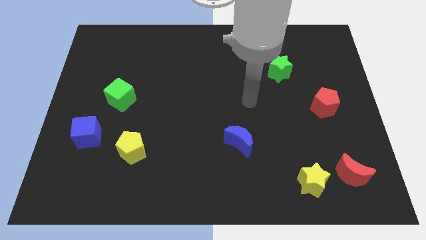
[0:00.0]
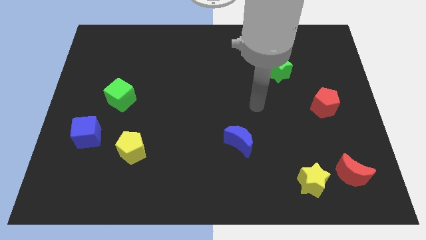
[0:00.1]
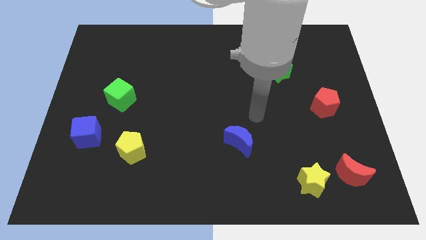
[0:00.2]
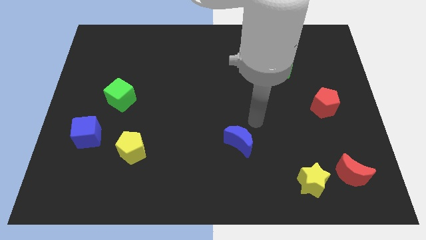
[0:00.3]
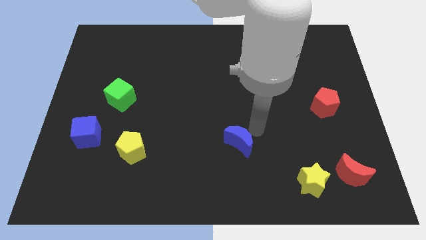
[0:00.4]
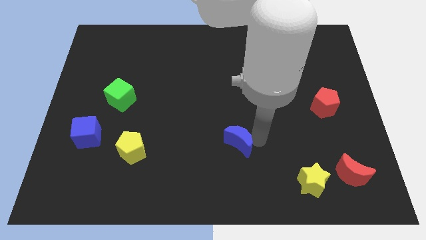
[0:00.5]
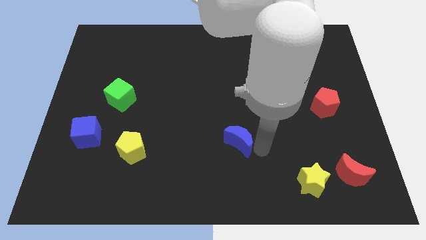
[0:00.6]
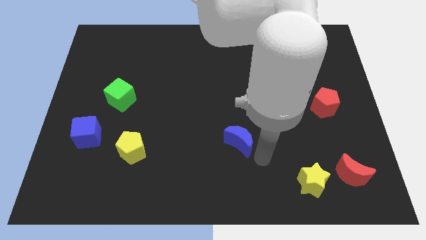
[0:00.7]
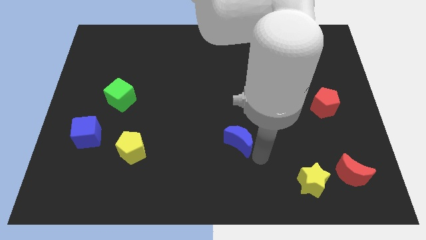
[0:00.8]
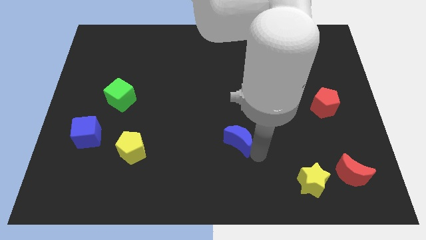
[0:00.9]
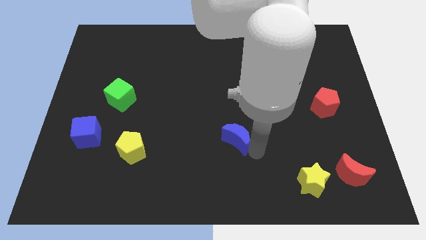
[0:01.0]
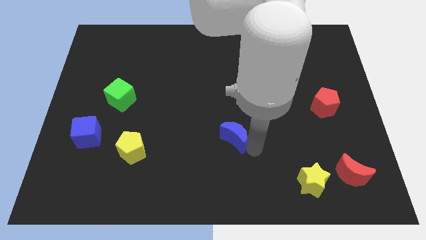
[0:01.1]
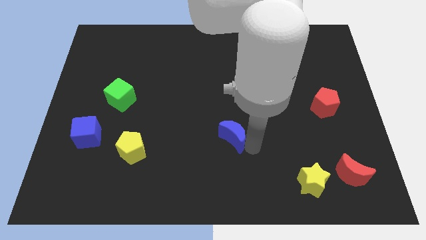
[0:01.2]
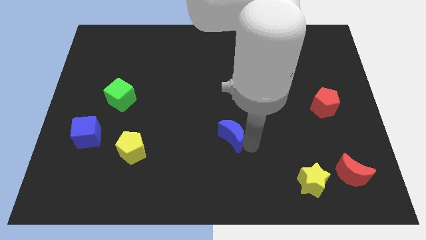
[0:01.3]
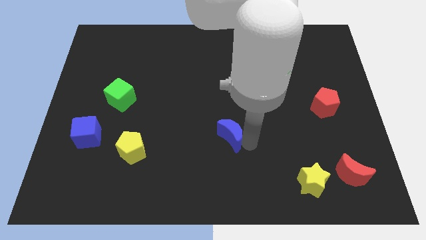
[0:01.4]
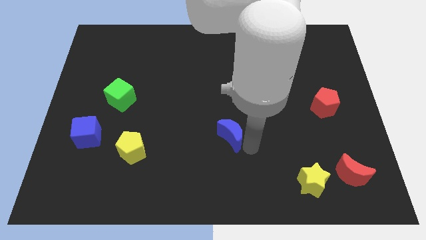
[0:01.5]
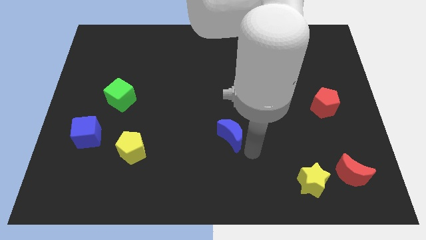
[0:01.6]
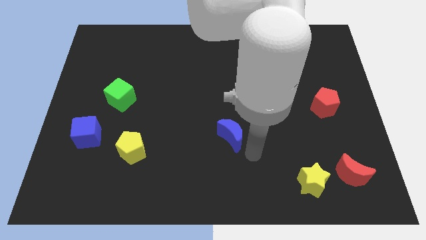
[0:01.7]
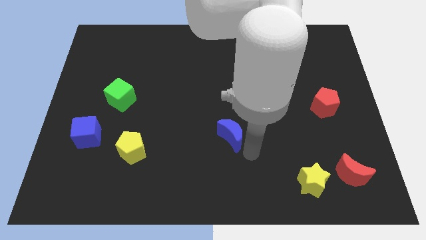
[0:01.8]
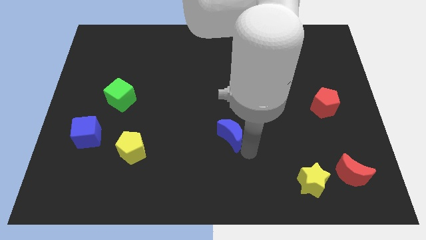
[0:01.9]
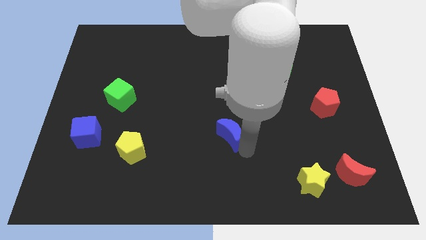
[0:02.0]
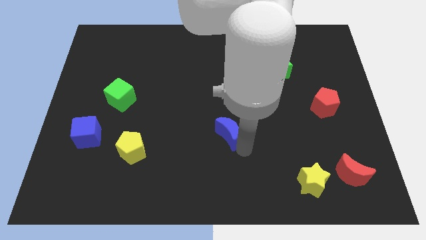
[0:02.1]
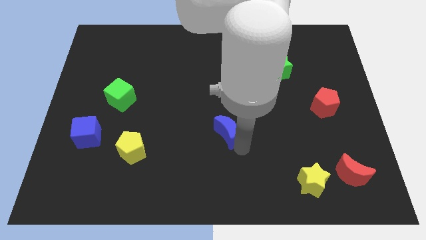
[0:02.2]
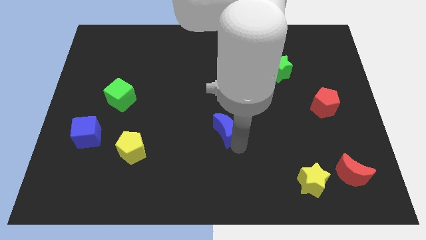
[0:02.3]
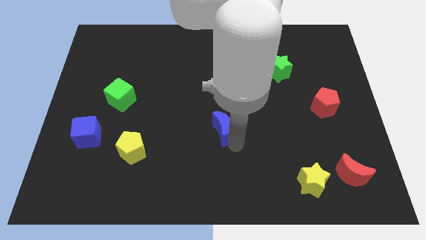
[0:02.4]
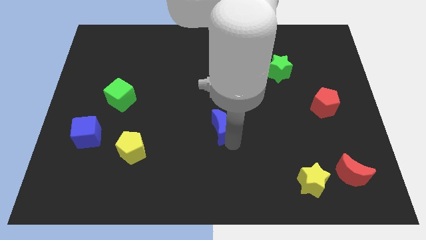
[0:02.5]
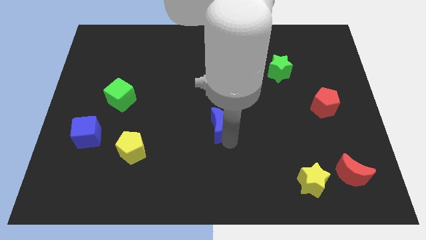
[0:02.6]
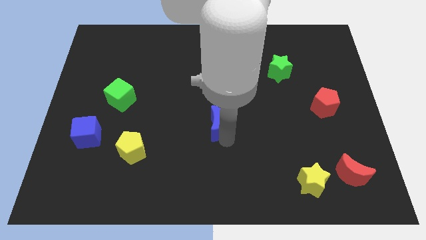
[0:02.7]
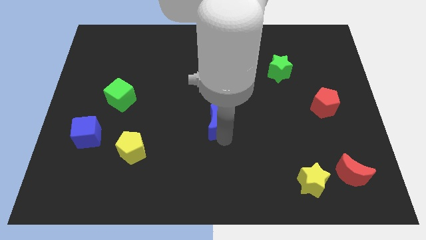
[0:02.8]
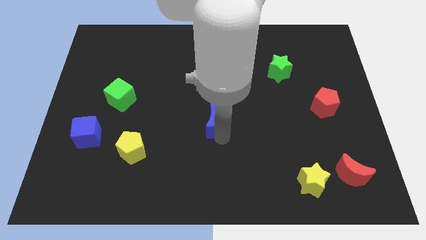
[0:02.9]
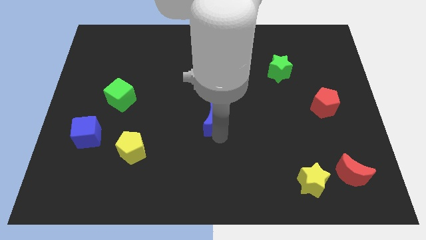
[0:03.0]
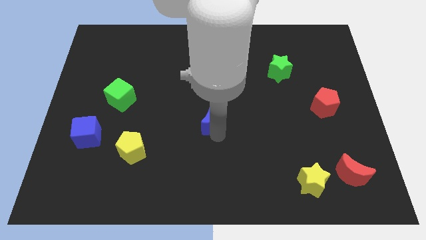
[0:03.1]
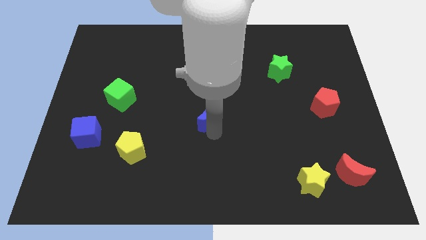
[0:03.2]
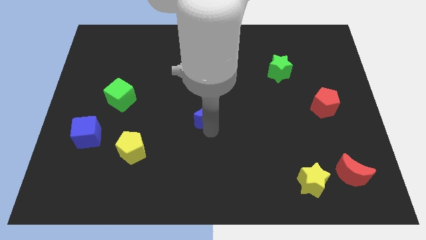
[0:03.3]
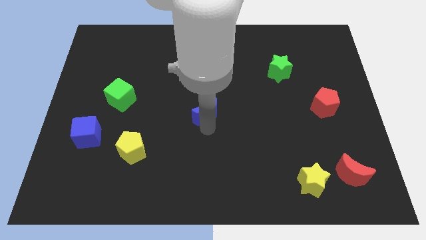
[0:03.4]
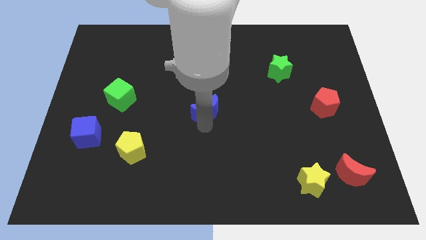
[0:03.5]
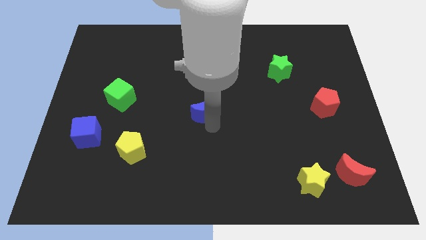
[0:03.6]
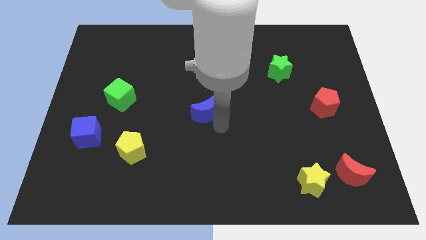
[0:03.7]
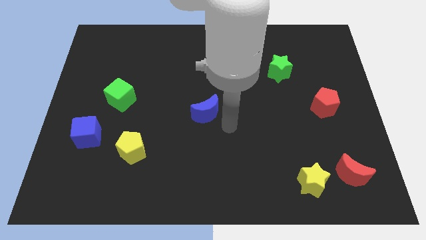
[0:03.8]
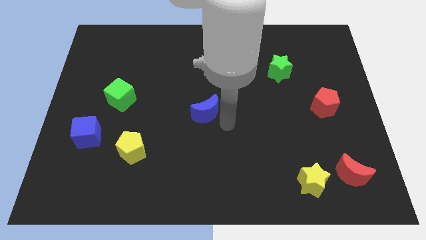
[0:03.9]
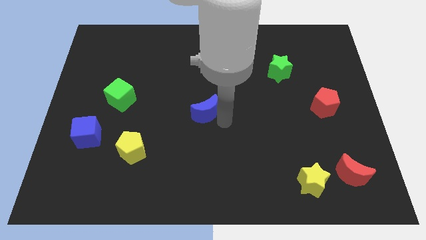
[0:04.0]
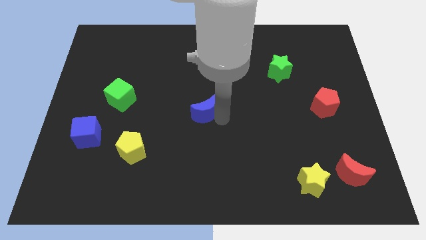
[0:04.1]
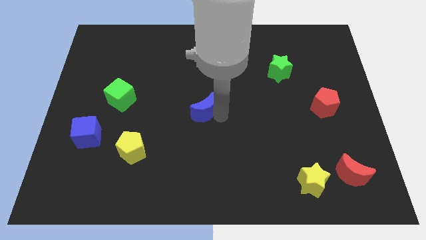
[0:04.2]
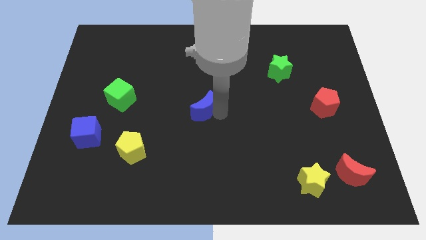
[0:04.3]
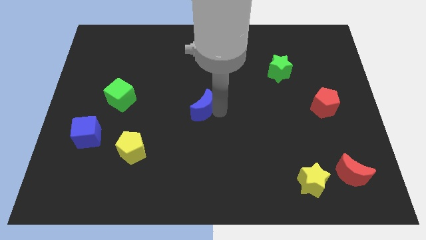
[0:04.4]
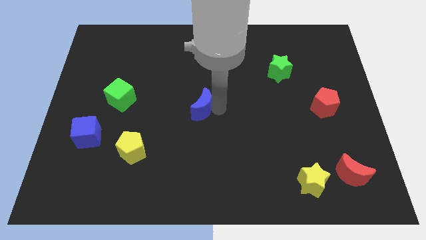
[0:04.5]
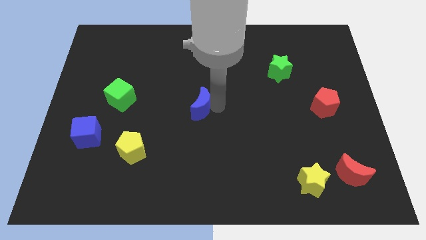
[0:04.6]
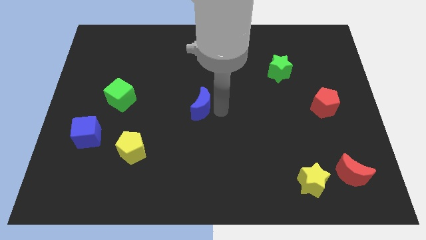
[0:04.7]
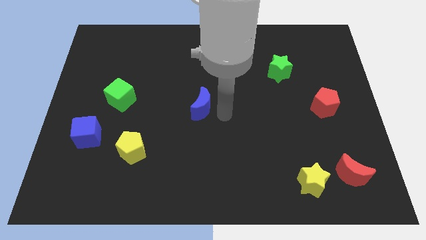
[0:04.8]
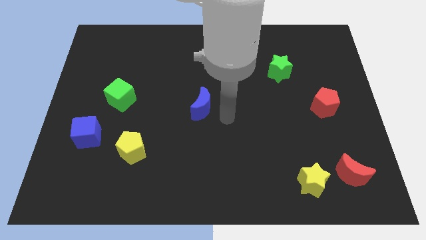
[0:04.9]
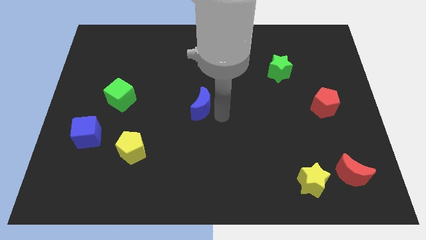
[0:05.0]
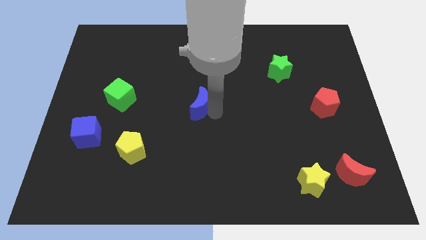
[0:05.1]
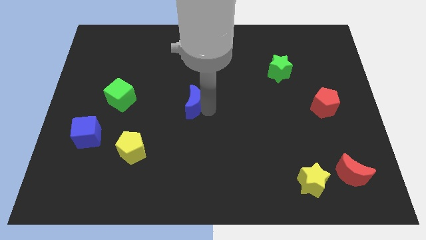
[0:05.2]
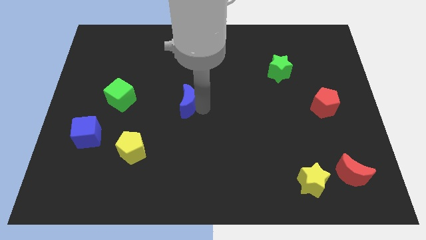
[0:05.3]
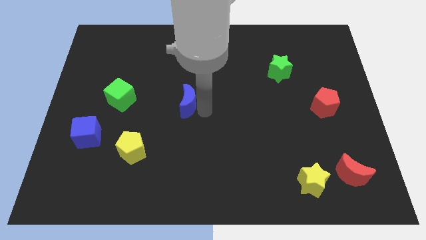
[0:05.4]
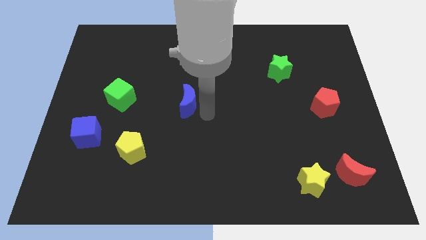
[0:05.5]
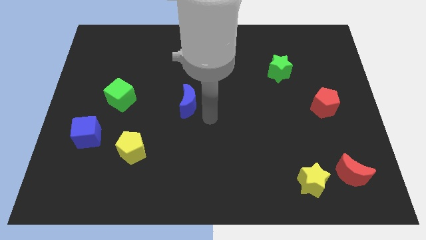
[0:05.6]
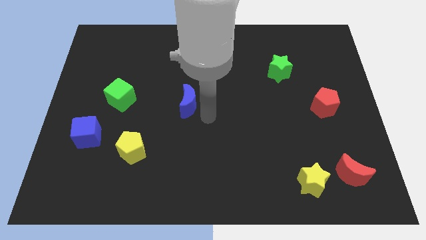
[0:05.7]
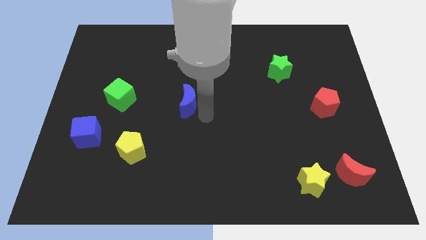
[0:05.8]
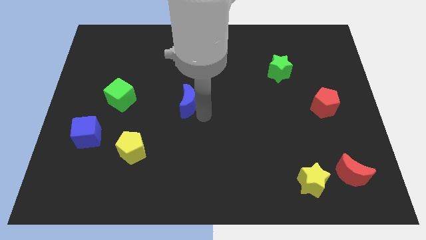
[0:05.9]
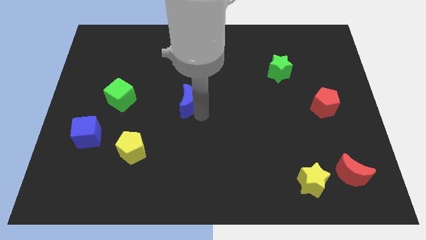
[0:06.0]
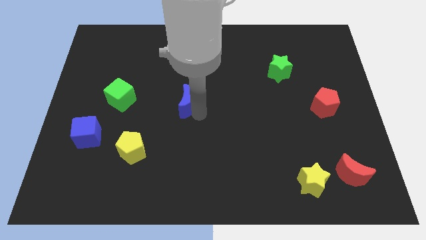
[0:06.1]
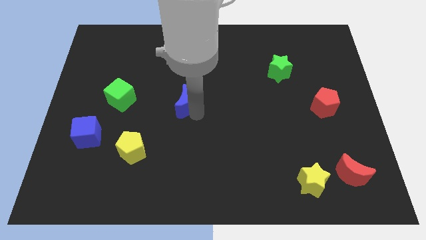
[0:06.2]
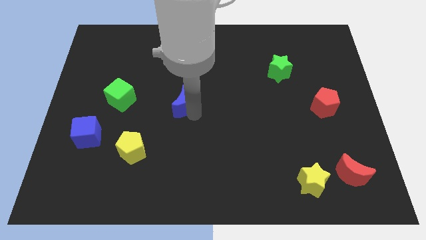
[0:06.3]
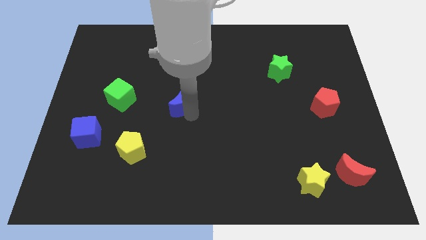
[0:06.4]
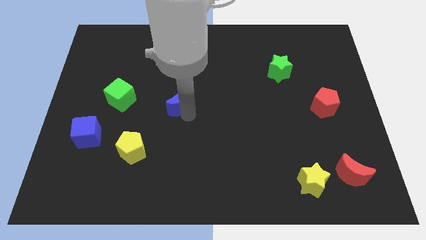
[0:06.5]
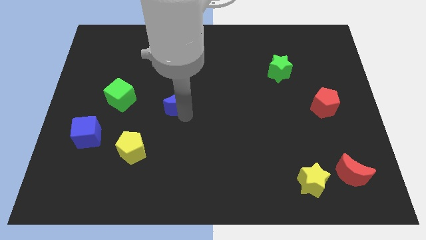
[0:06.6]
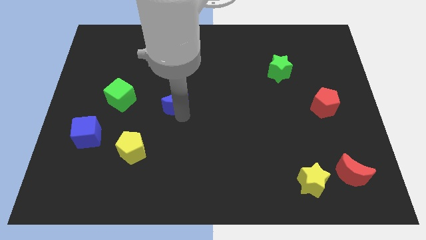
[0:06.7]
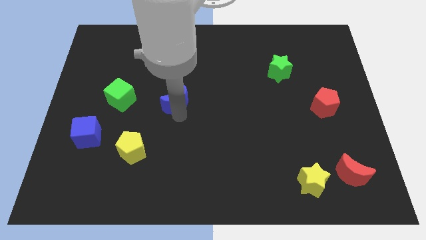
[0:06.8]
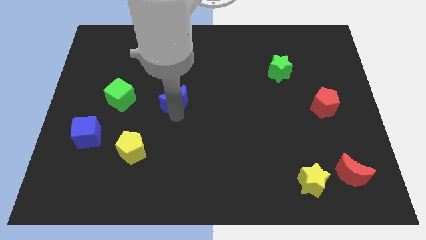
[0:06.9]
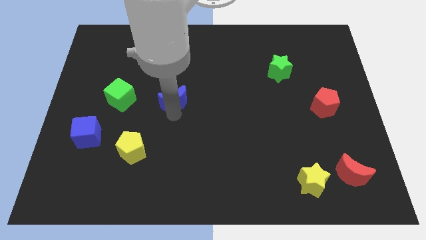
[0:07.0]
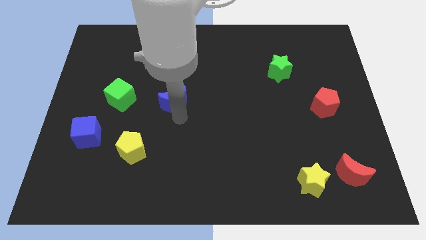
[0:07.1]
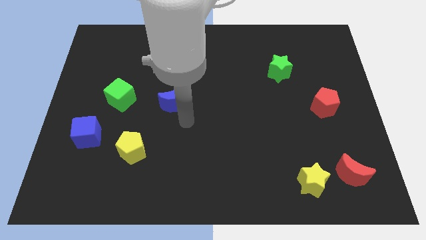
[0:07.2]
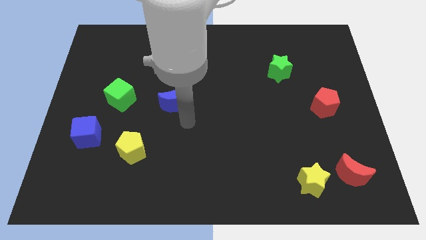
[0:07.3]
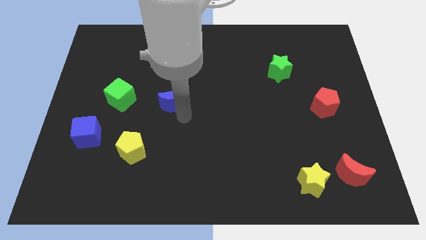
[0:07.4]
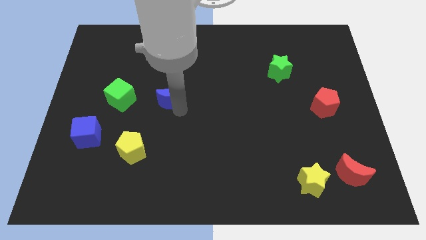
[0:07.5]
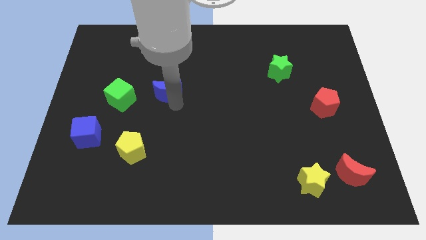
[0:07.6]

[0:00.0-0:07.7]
move the blue moon up and left diagonally

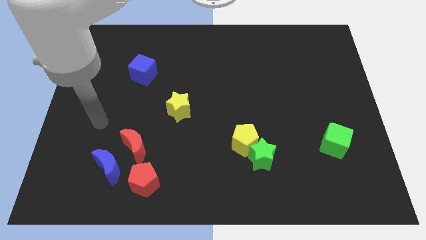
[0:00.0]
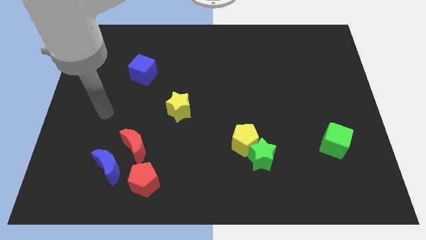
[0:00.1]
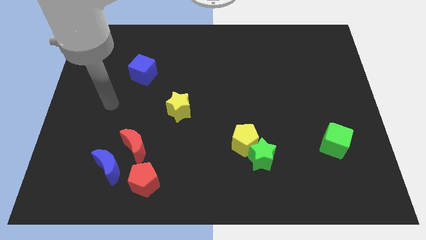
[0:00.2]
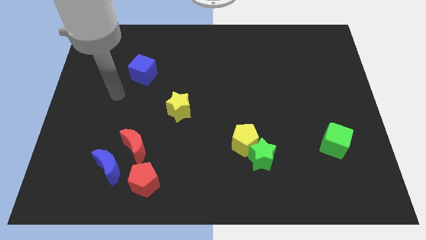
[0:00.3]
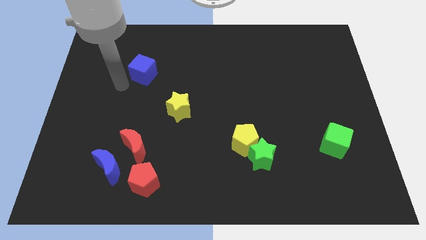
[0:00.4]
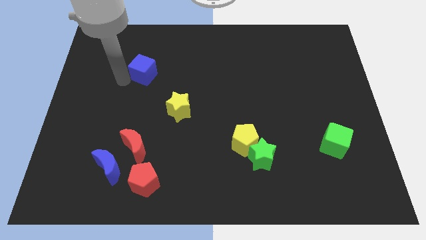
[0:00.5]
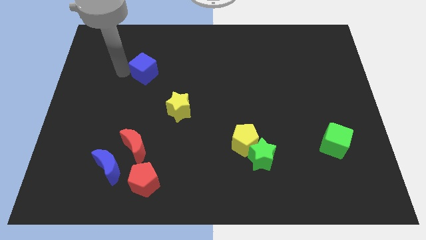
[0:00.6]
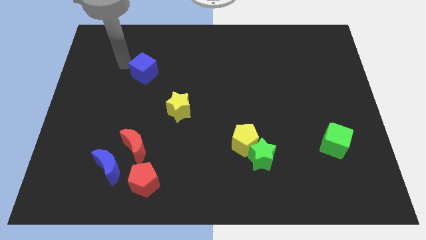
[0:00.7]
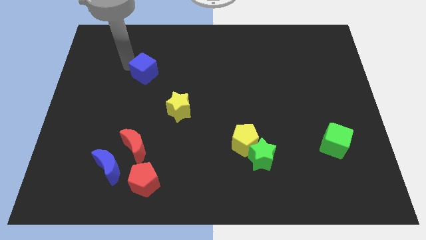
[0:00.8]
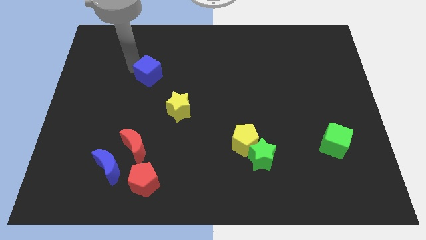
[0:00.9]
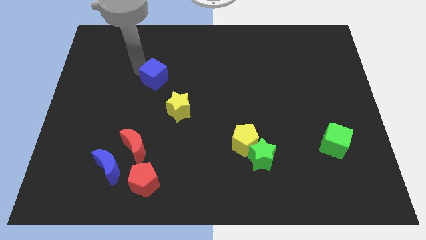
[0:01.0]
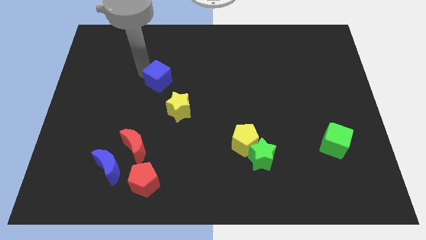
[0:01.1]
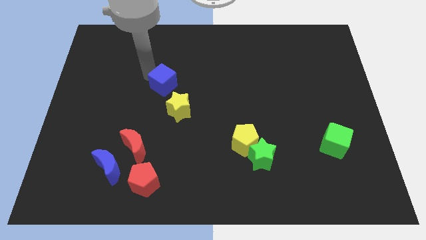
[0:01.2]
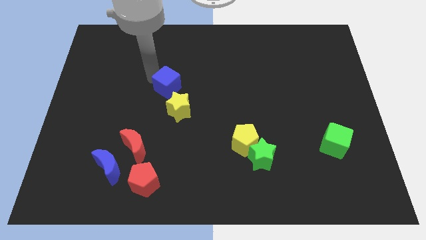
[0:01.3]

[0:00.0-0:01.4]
slightly push the blue cube diagonally down and right
